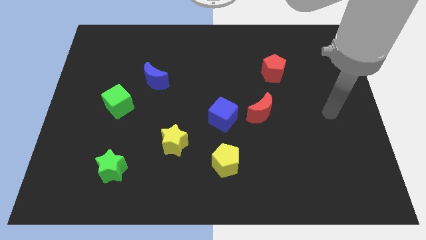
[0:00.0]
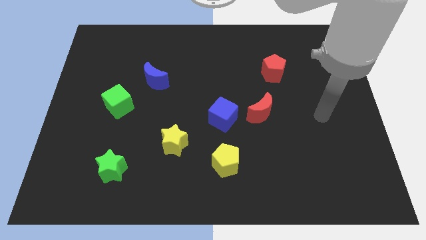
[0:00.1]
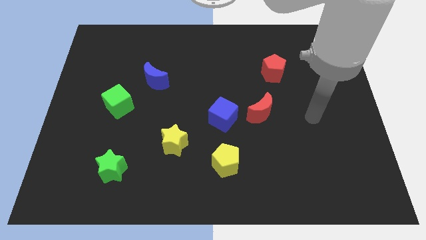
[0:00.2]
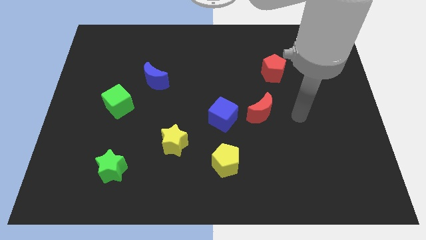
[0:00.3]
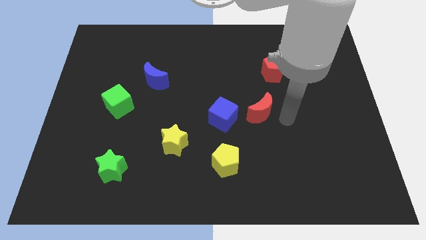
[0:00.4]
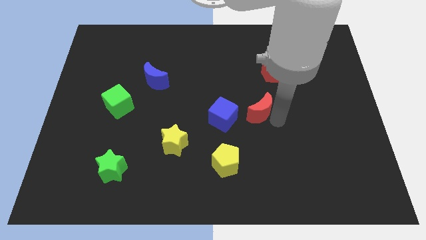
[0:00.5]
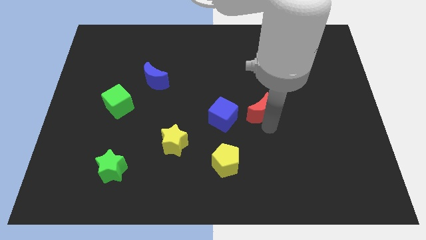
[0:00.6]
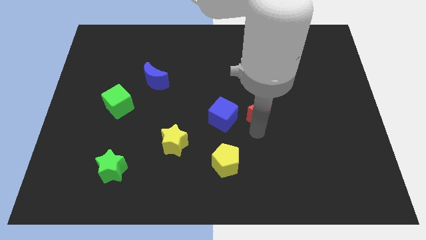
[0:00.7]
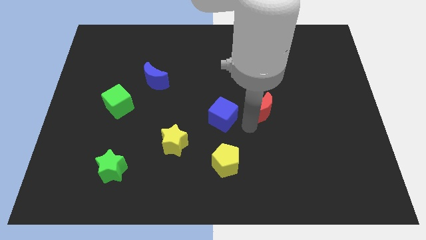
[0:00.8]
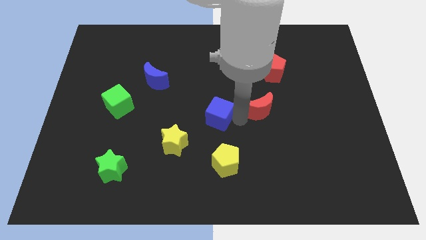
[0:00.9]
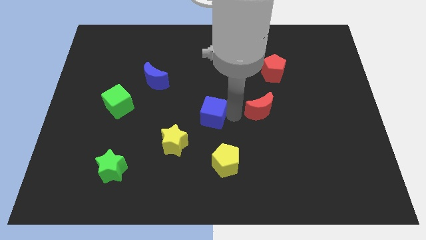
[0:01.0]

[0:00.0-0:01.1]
pull the red moon apart from the blue cube

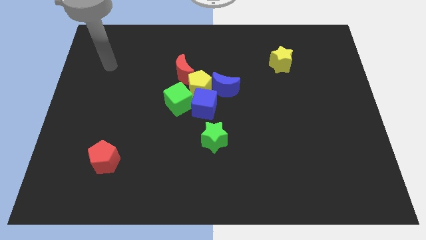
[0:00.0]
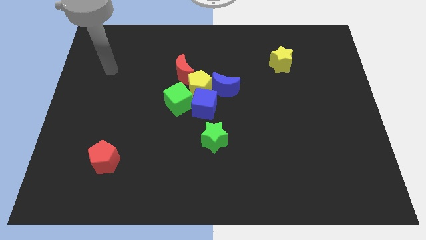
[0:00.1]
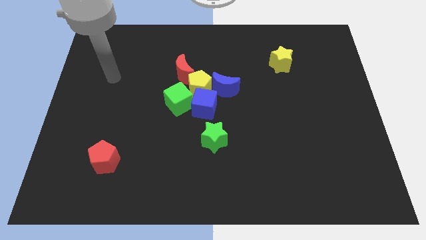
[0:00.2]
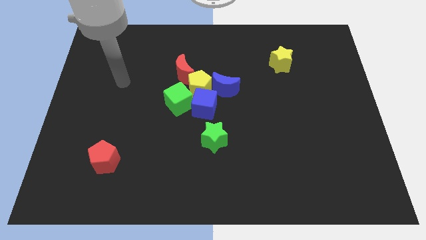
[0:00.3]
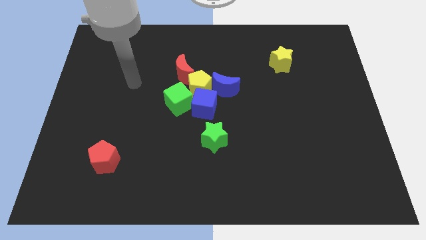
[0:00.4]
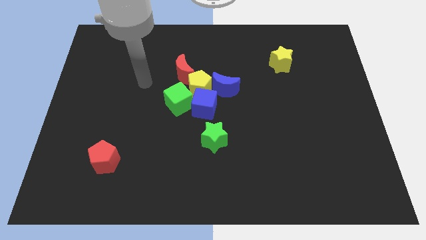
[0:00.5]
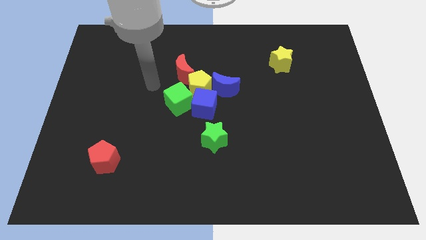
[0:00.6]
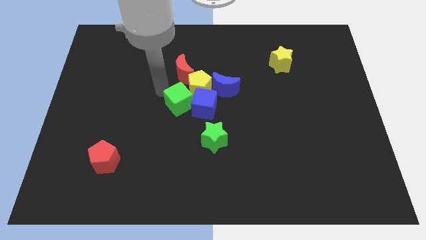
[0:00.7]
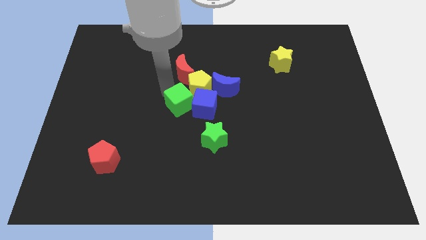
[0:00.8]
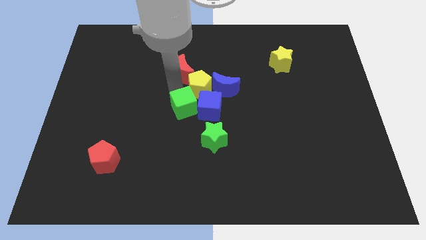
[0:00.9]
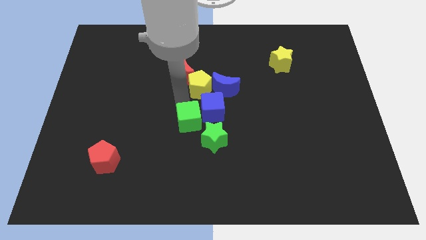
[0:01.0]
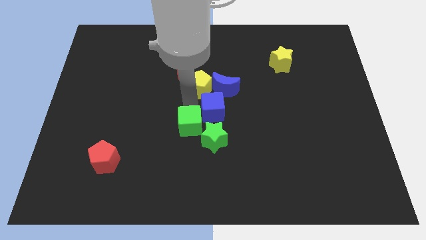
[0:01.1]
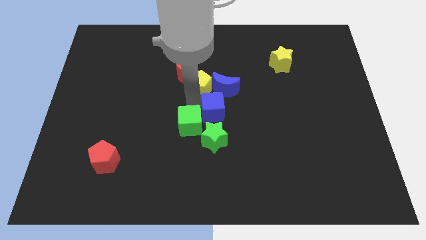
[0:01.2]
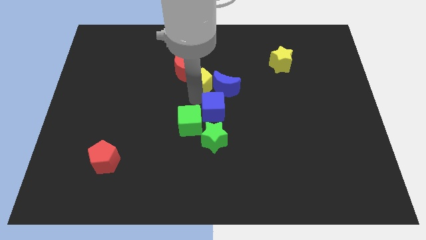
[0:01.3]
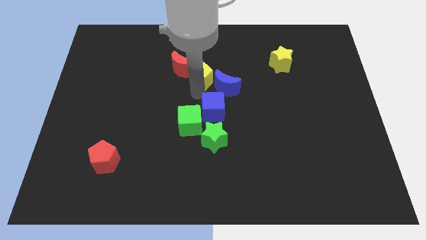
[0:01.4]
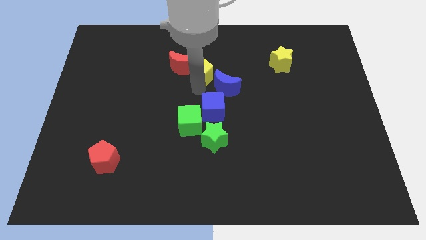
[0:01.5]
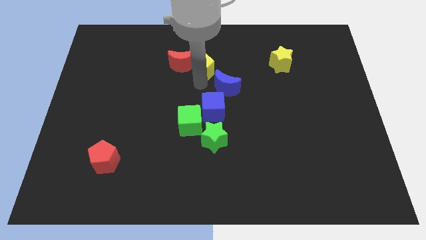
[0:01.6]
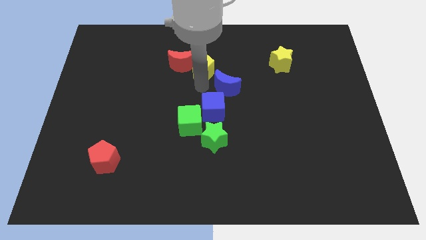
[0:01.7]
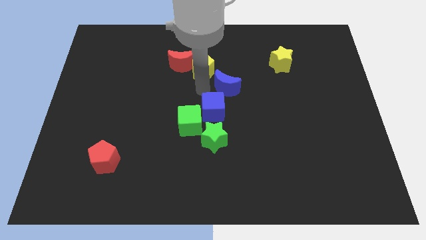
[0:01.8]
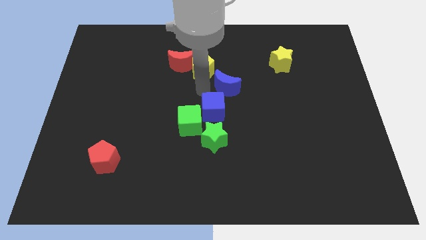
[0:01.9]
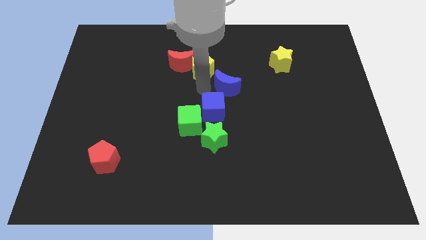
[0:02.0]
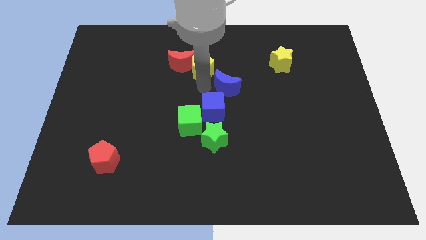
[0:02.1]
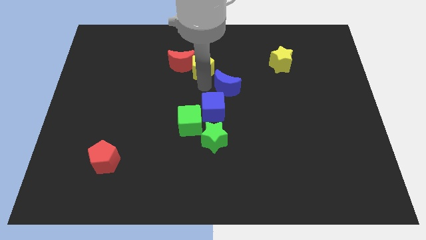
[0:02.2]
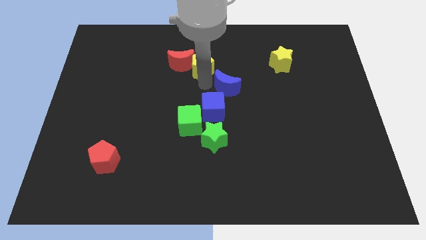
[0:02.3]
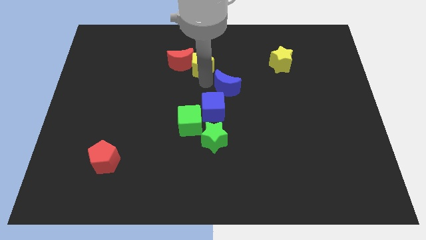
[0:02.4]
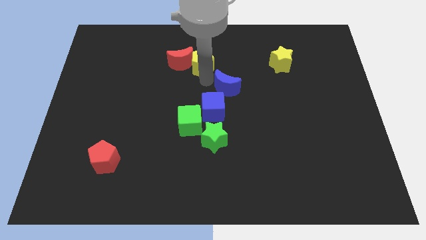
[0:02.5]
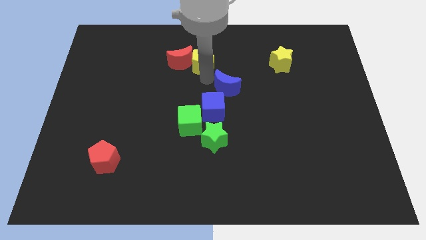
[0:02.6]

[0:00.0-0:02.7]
separate the yellow pentagon from the group of blocks

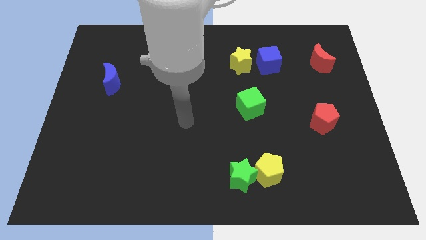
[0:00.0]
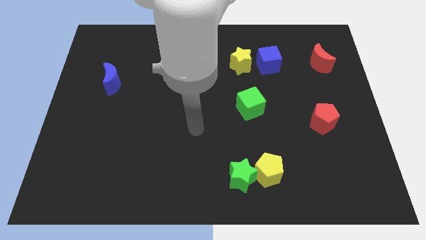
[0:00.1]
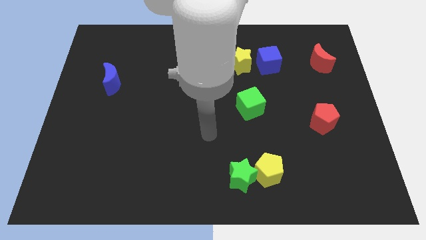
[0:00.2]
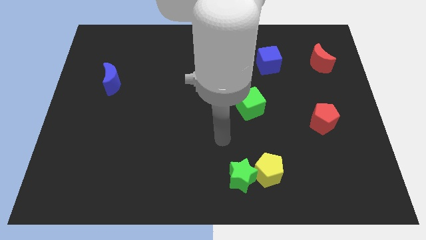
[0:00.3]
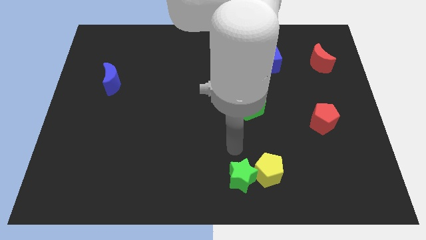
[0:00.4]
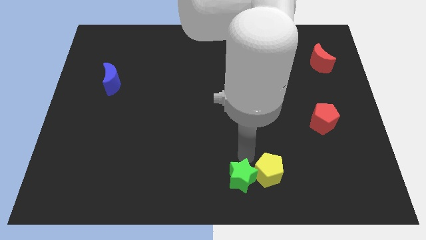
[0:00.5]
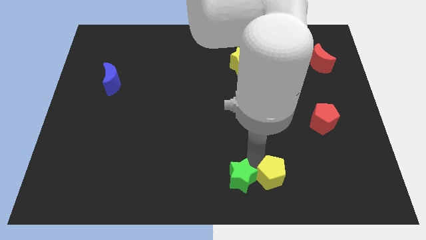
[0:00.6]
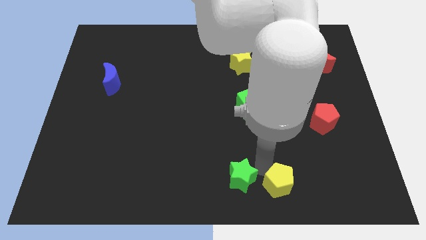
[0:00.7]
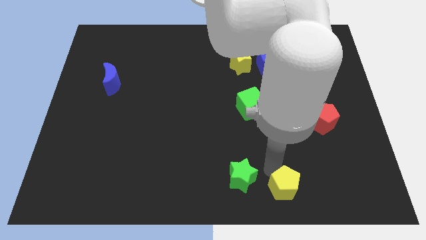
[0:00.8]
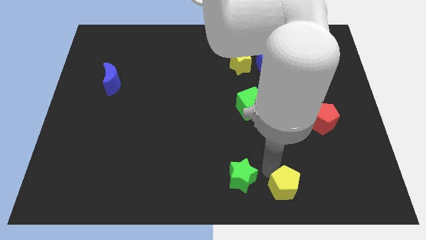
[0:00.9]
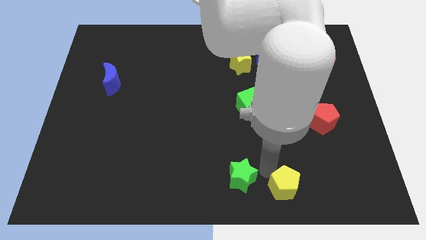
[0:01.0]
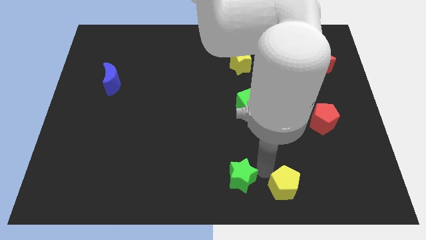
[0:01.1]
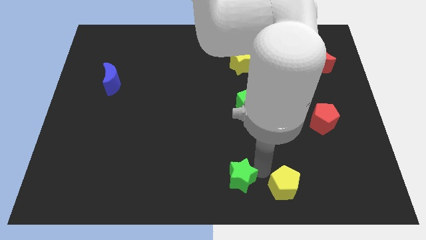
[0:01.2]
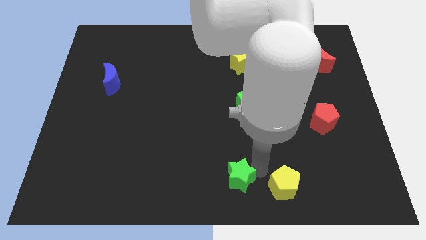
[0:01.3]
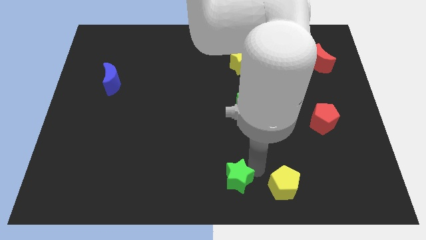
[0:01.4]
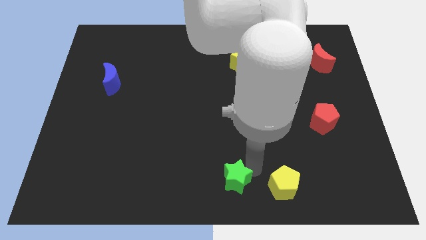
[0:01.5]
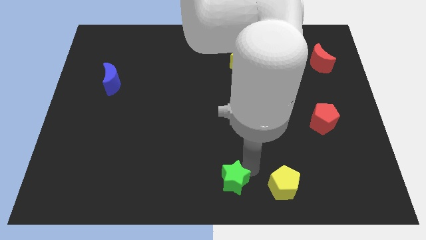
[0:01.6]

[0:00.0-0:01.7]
move the green star away from the yellow pentagon

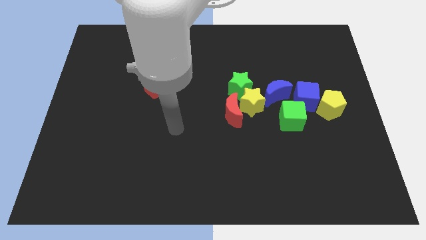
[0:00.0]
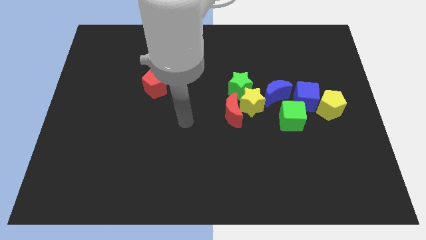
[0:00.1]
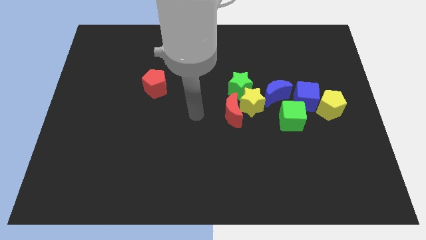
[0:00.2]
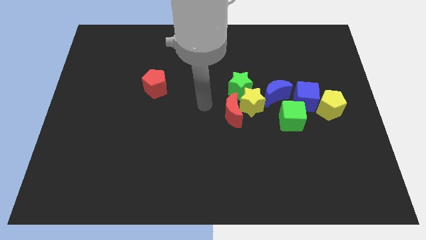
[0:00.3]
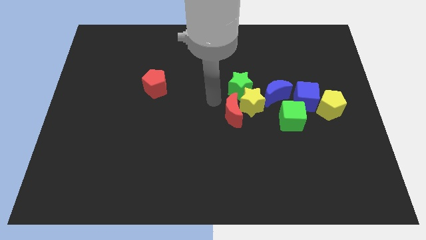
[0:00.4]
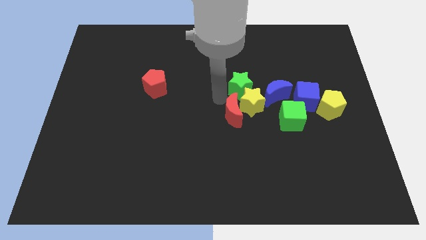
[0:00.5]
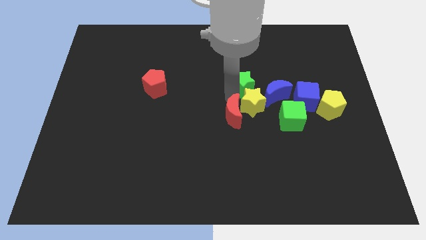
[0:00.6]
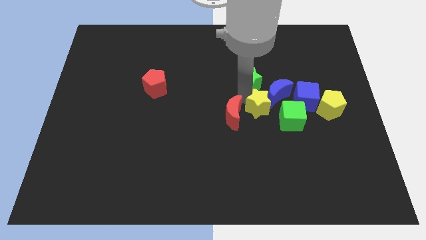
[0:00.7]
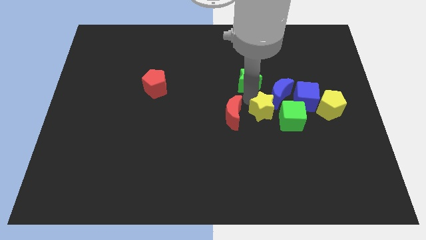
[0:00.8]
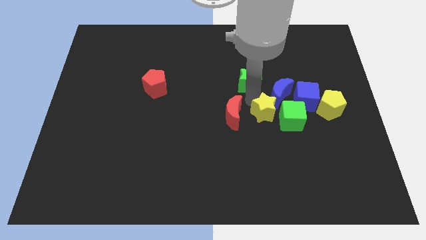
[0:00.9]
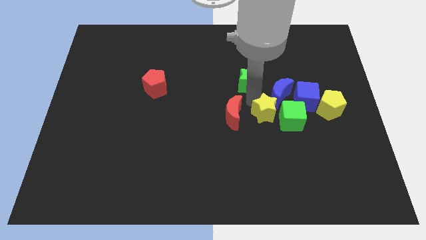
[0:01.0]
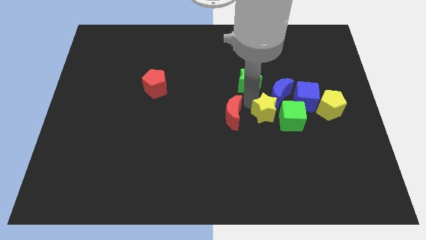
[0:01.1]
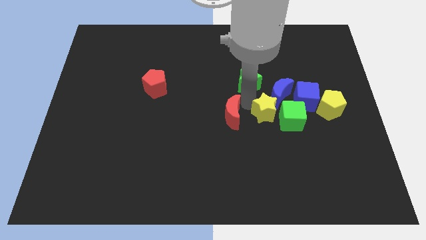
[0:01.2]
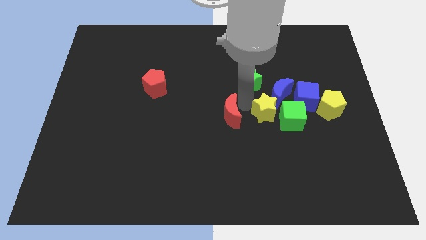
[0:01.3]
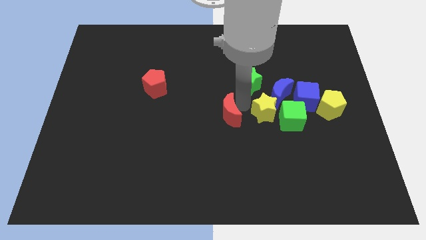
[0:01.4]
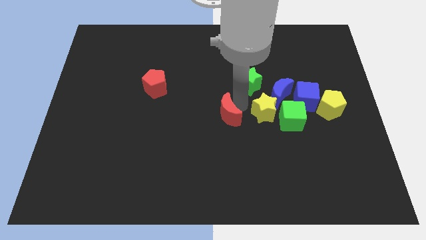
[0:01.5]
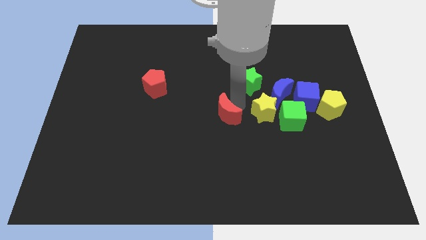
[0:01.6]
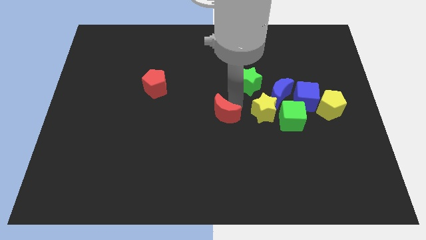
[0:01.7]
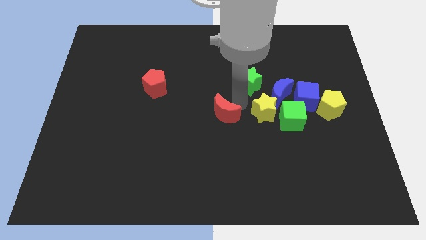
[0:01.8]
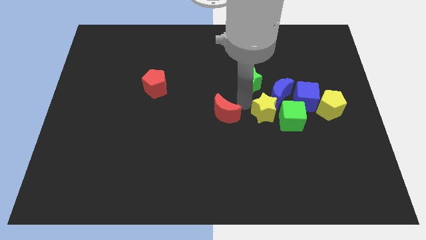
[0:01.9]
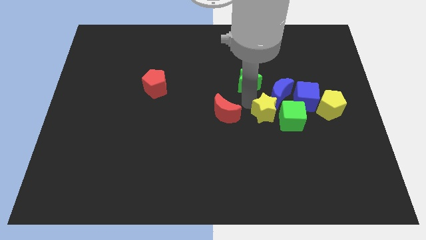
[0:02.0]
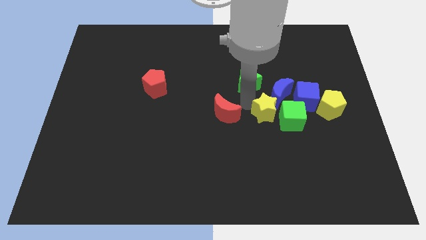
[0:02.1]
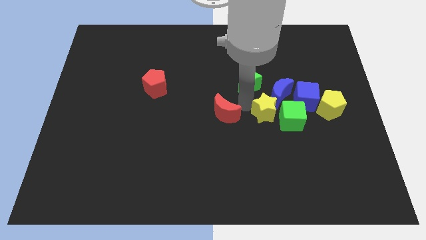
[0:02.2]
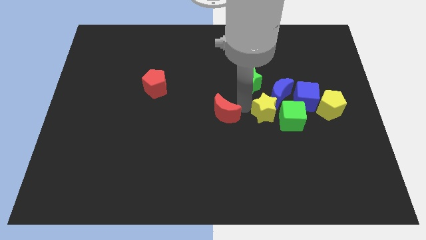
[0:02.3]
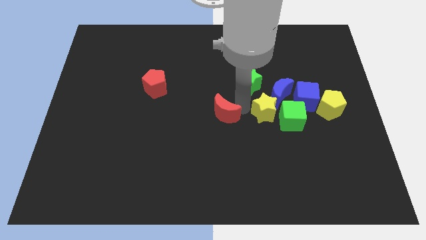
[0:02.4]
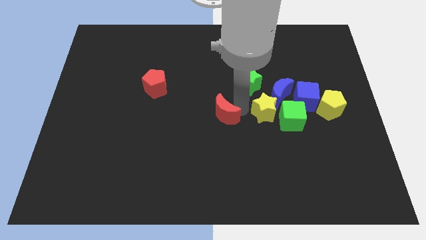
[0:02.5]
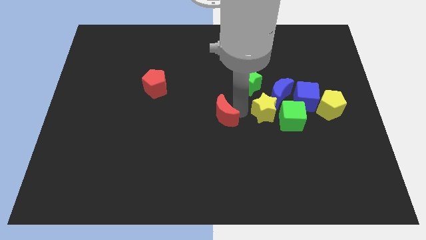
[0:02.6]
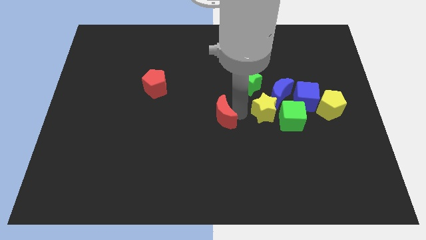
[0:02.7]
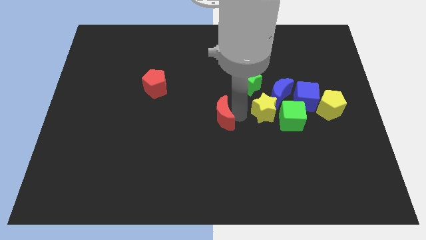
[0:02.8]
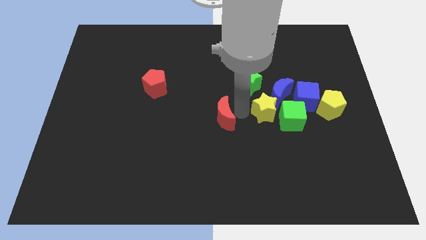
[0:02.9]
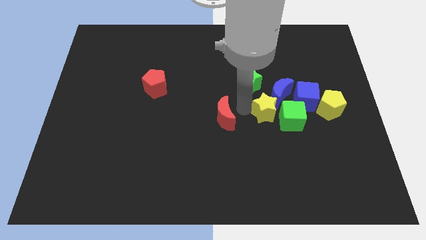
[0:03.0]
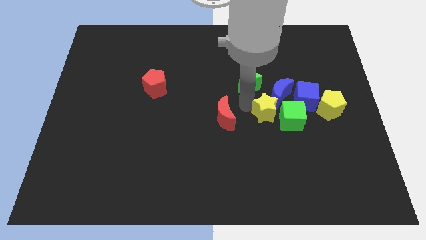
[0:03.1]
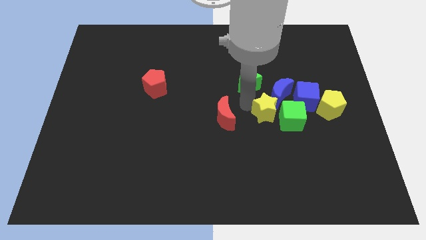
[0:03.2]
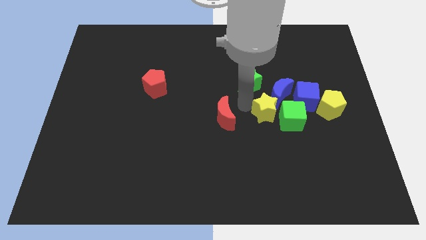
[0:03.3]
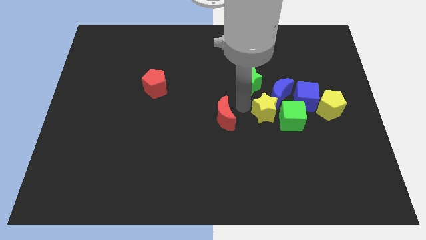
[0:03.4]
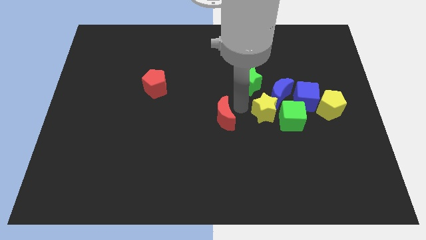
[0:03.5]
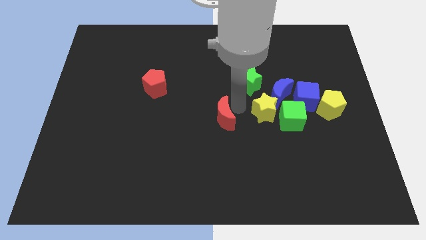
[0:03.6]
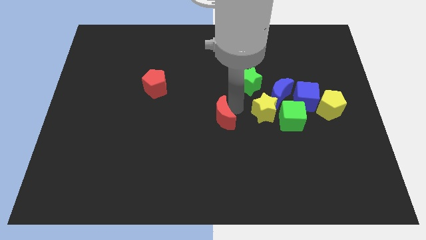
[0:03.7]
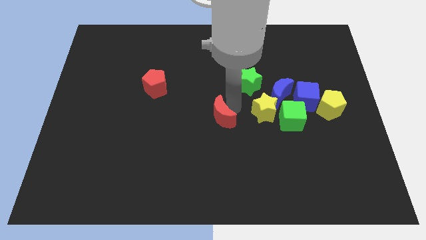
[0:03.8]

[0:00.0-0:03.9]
pull the red moon apart from the yellow star and green star
